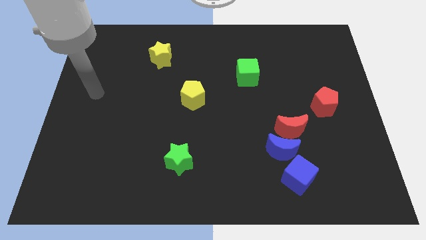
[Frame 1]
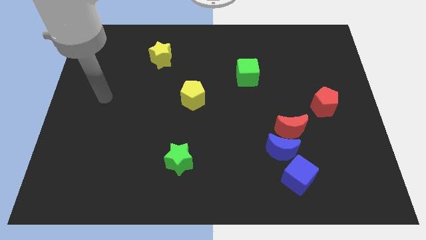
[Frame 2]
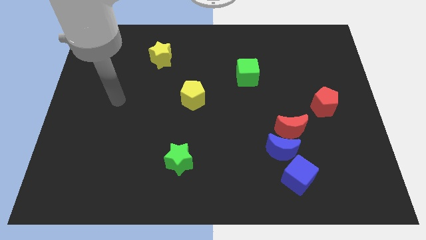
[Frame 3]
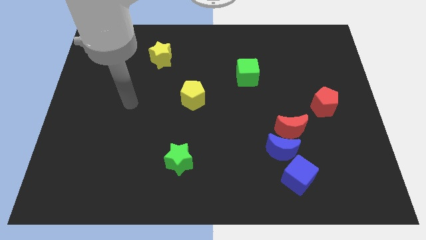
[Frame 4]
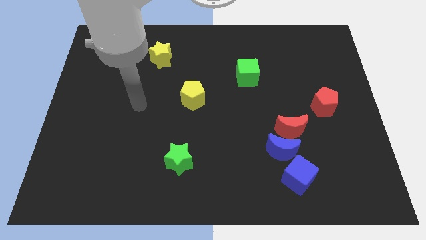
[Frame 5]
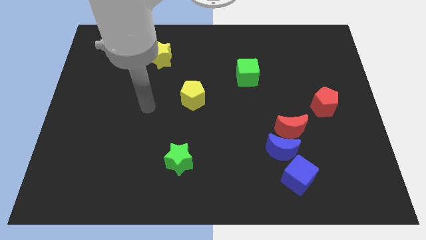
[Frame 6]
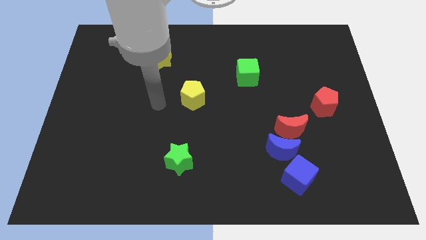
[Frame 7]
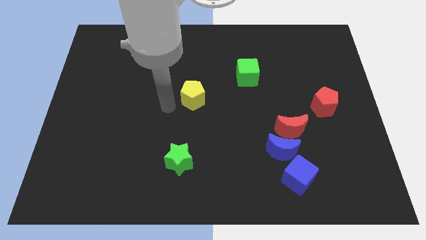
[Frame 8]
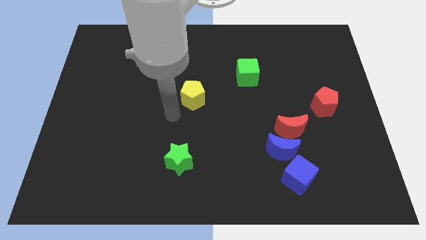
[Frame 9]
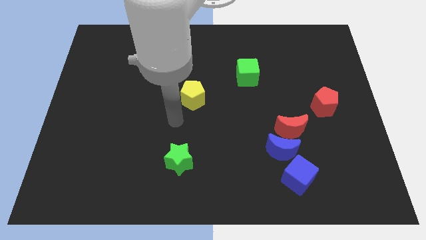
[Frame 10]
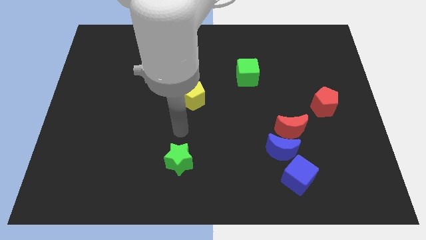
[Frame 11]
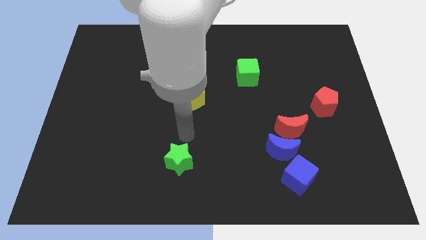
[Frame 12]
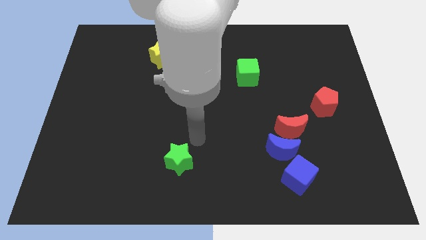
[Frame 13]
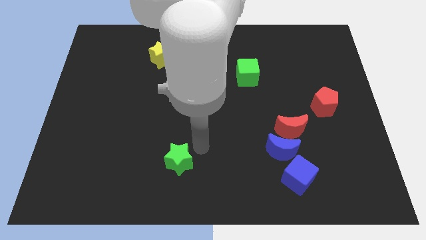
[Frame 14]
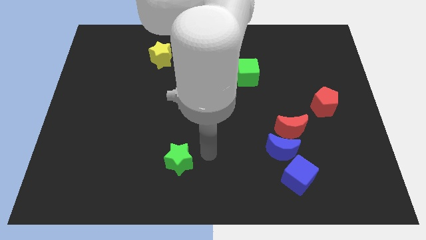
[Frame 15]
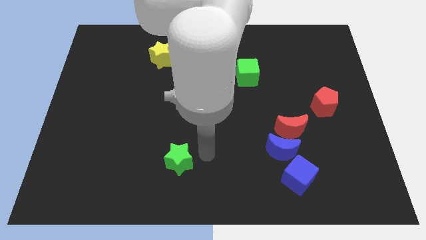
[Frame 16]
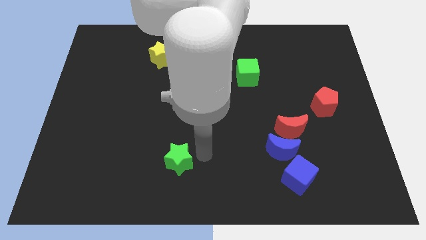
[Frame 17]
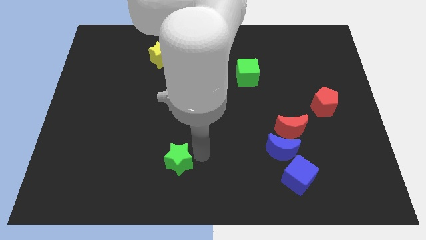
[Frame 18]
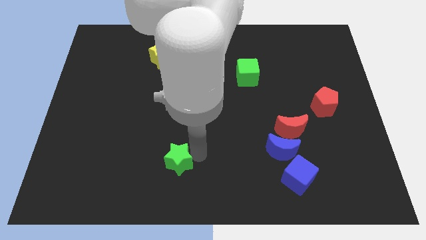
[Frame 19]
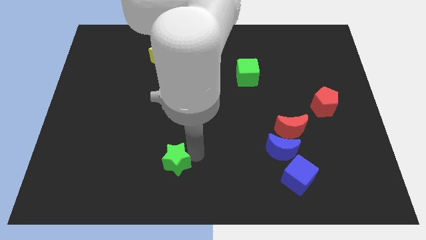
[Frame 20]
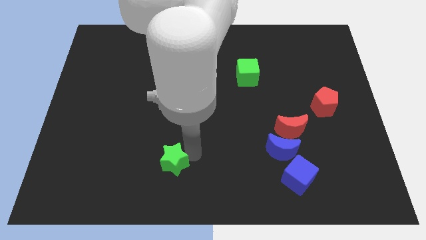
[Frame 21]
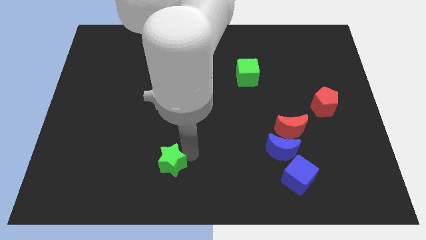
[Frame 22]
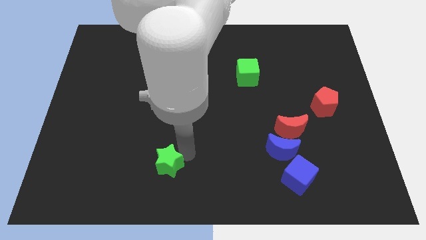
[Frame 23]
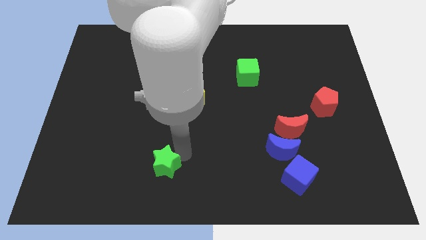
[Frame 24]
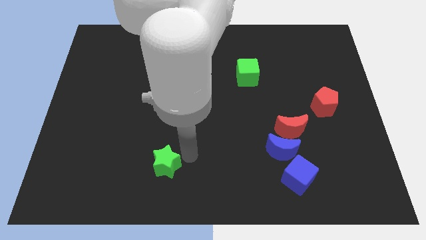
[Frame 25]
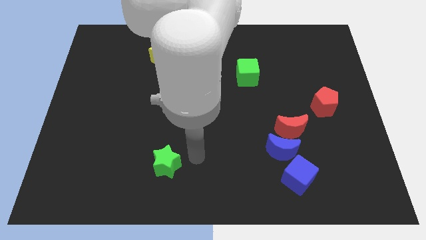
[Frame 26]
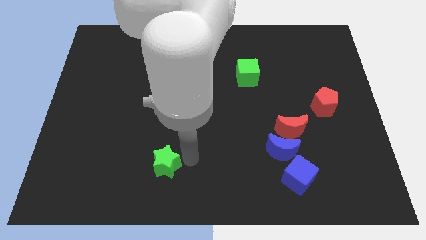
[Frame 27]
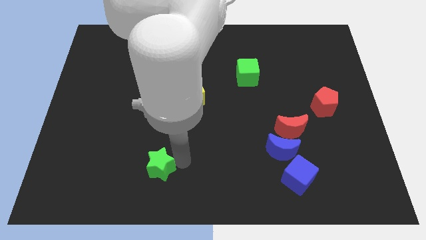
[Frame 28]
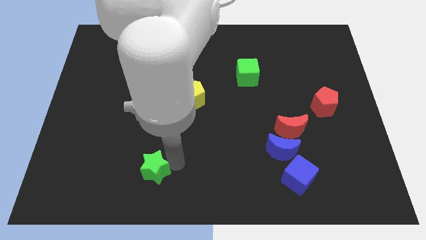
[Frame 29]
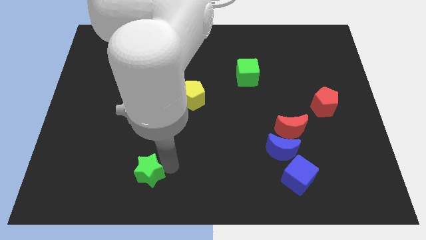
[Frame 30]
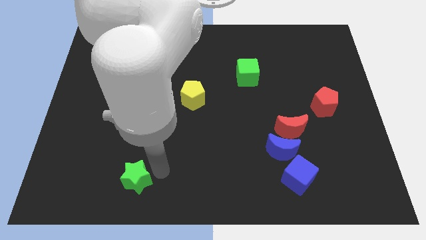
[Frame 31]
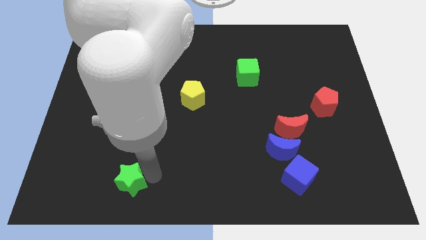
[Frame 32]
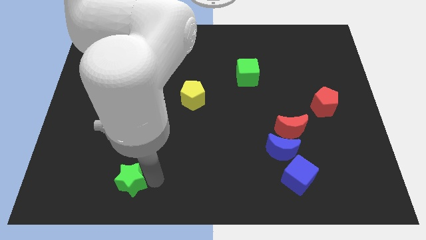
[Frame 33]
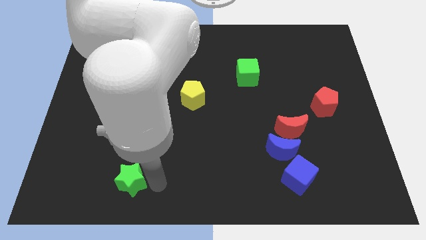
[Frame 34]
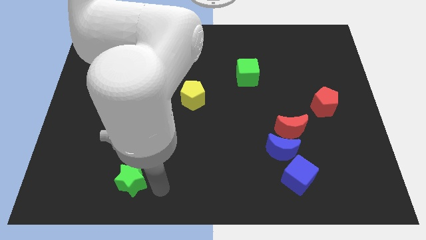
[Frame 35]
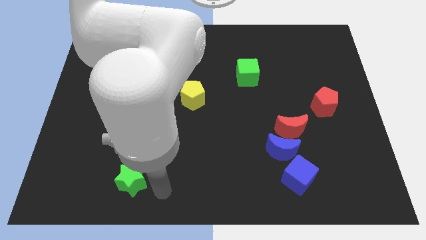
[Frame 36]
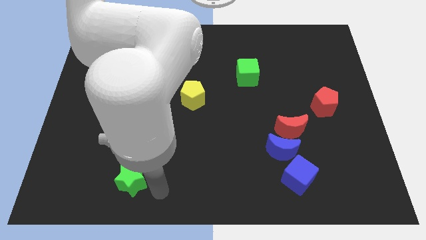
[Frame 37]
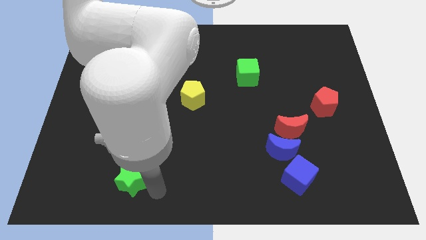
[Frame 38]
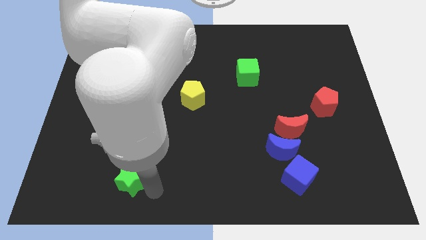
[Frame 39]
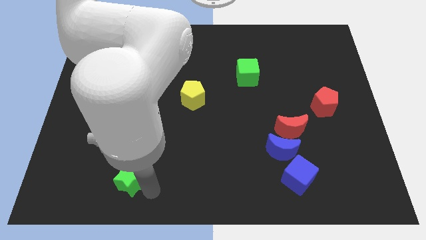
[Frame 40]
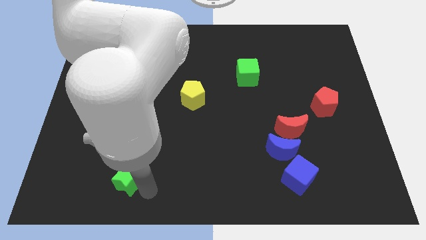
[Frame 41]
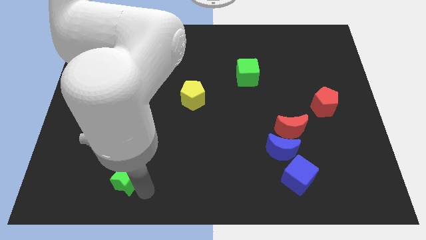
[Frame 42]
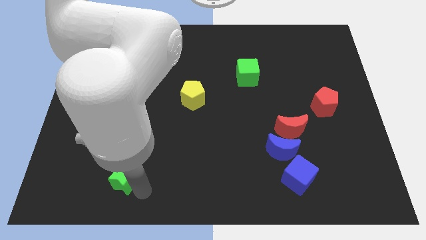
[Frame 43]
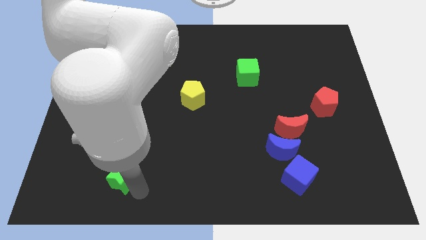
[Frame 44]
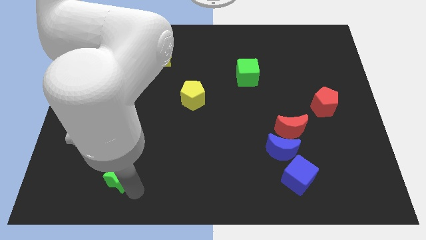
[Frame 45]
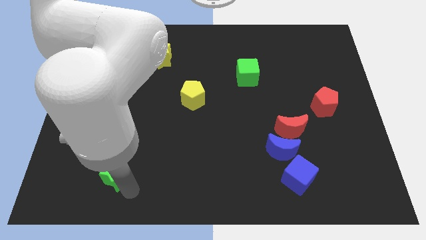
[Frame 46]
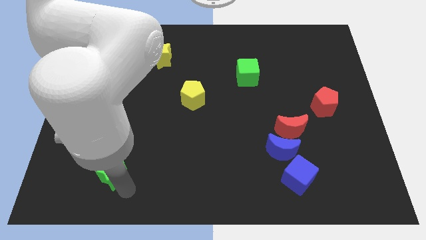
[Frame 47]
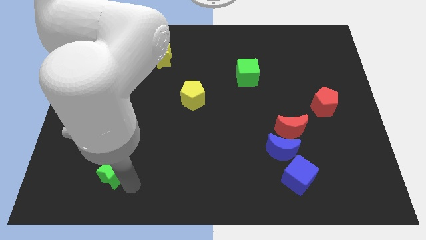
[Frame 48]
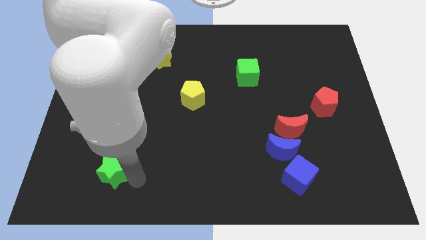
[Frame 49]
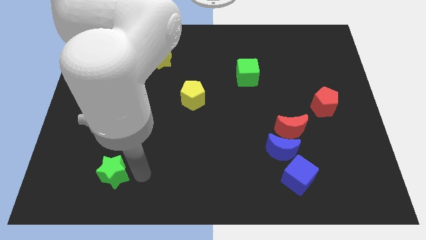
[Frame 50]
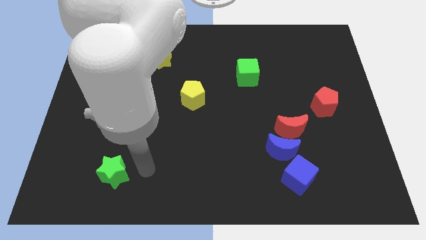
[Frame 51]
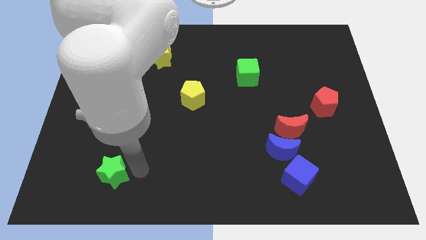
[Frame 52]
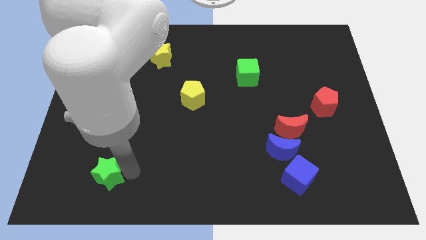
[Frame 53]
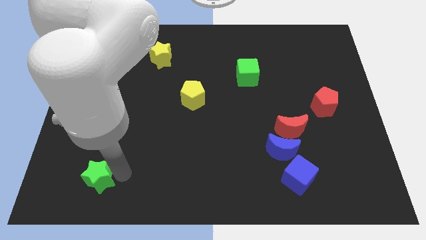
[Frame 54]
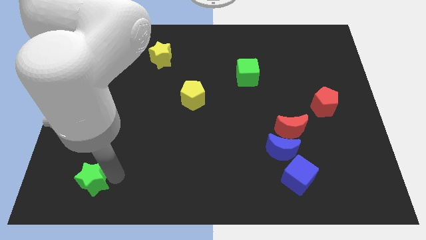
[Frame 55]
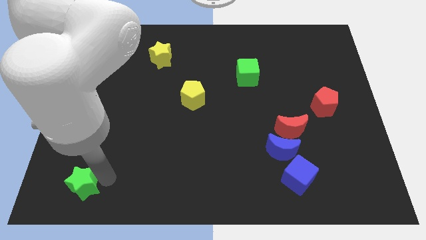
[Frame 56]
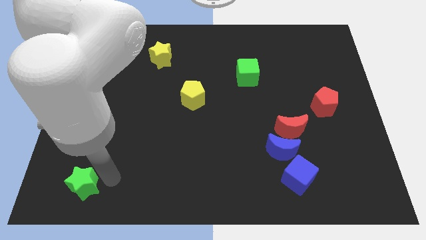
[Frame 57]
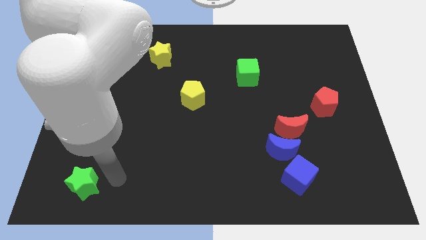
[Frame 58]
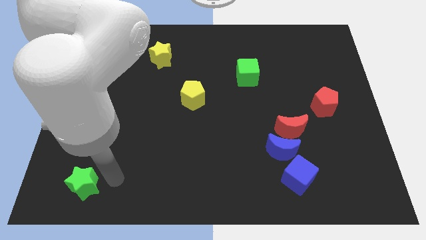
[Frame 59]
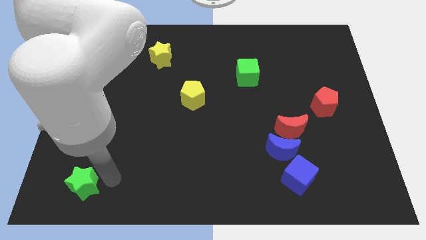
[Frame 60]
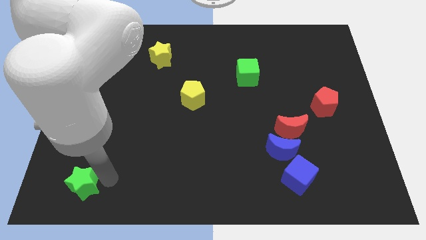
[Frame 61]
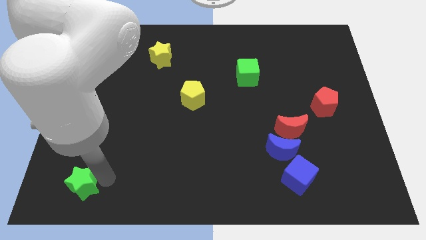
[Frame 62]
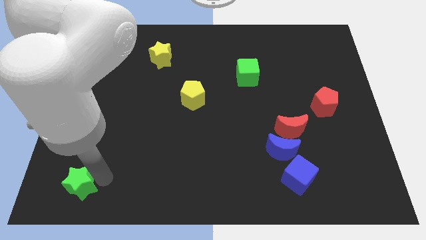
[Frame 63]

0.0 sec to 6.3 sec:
put the green star to the lower left corner

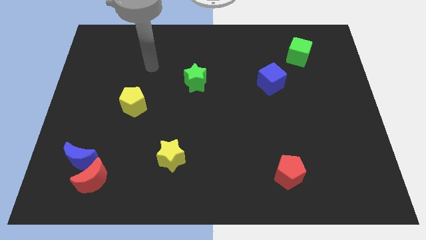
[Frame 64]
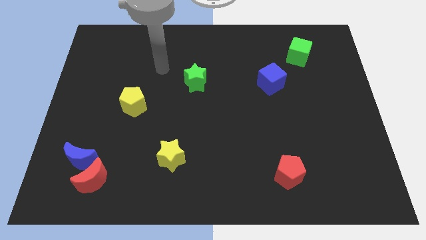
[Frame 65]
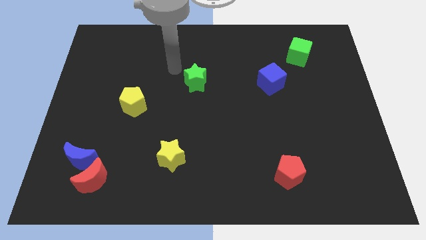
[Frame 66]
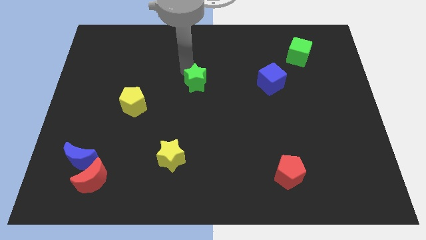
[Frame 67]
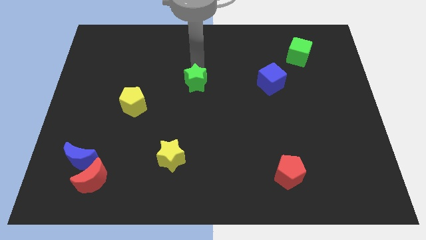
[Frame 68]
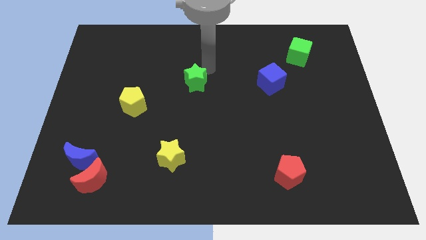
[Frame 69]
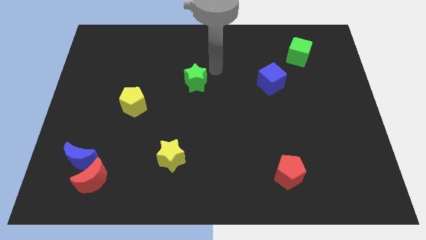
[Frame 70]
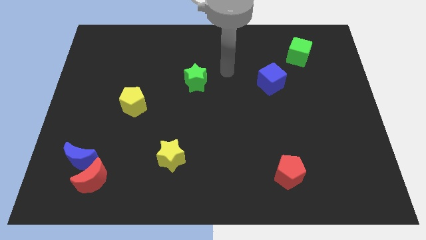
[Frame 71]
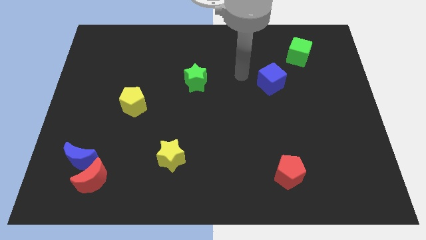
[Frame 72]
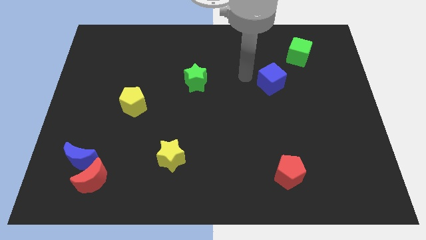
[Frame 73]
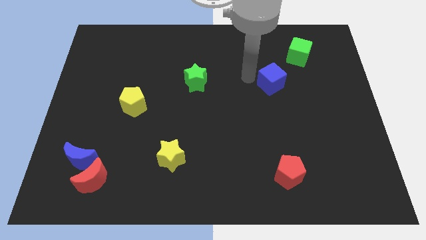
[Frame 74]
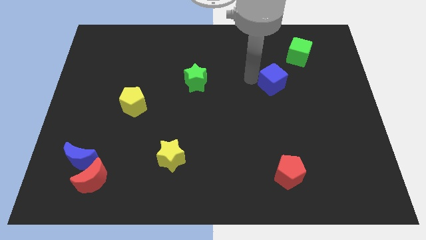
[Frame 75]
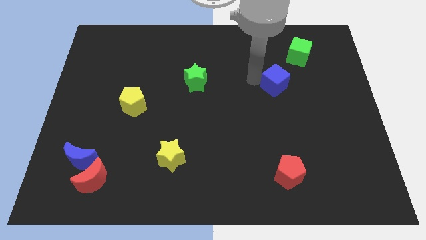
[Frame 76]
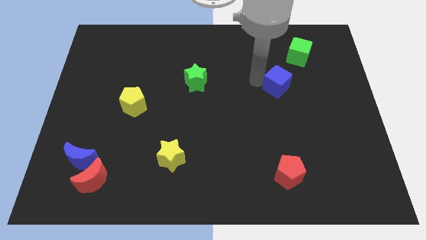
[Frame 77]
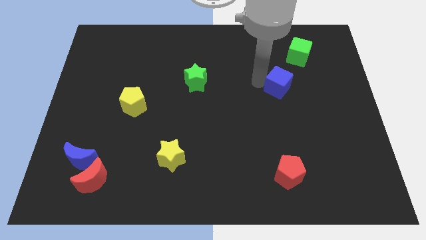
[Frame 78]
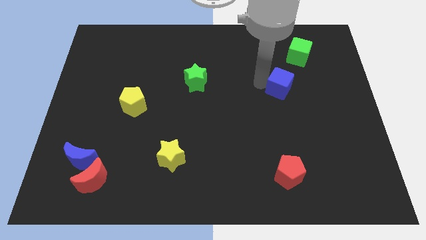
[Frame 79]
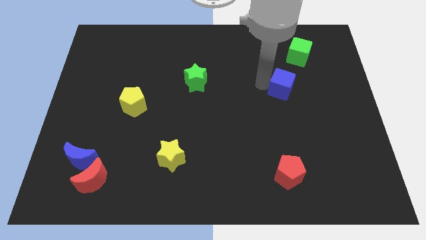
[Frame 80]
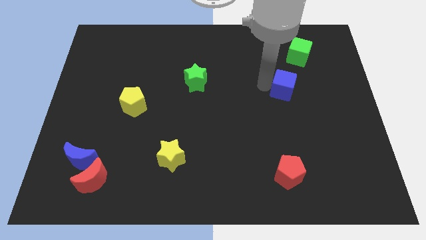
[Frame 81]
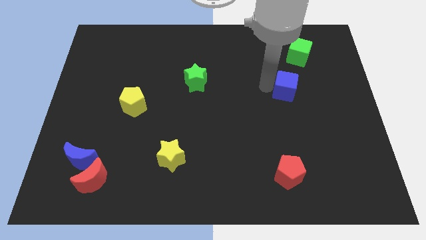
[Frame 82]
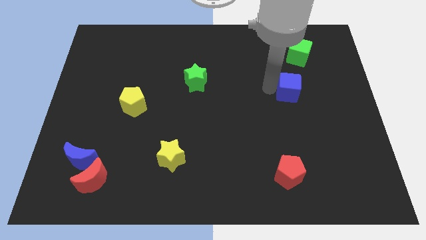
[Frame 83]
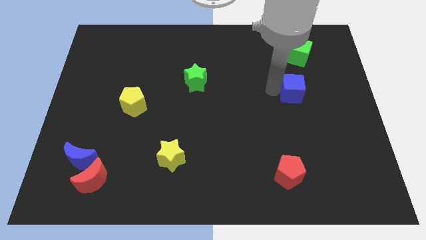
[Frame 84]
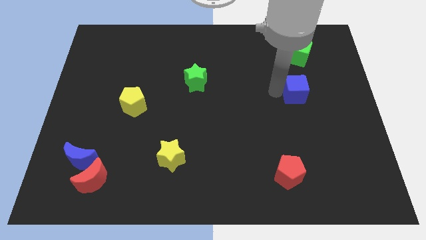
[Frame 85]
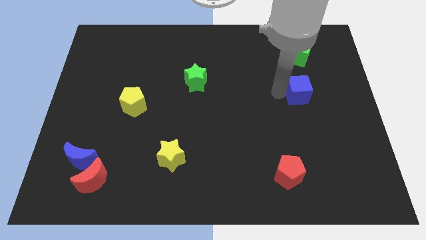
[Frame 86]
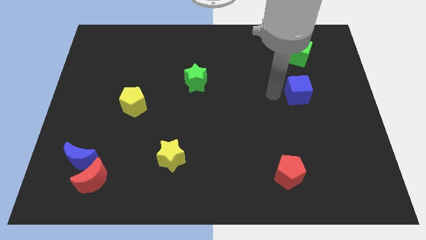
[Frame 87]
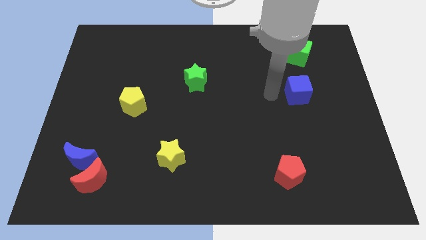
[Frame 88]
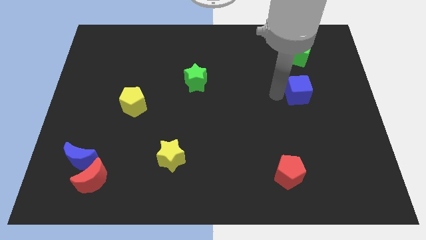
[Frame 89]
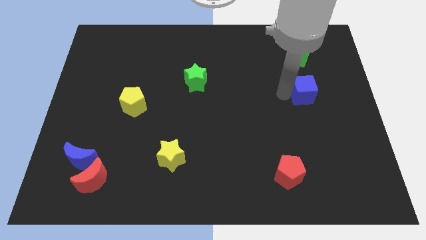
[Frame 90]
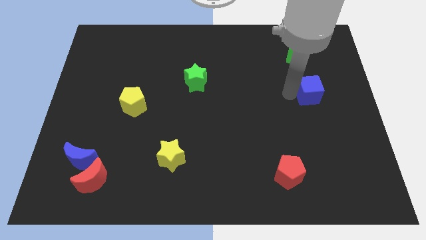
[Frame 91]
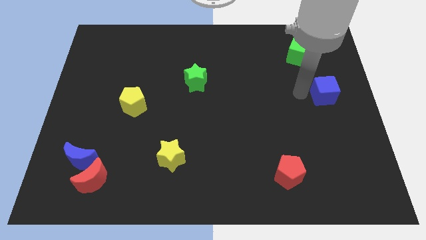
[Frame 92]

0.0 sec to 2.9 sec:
put the blue cube to the center right
